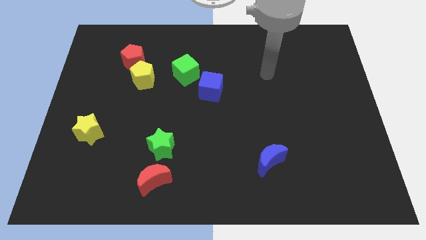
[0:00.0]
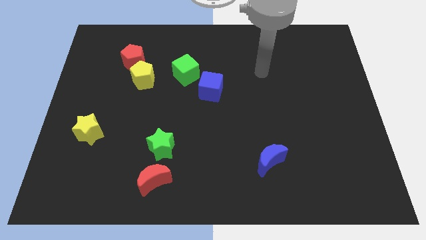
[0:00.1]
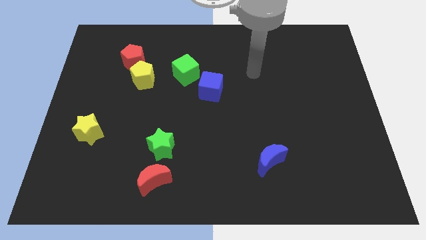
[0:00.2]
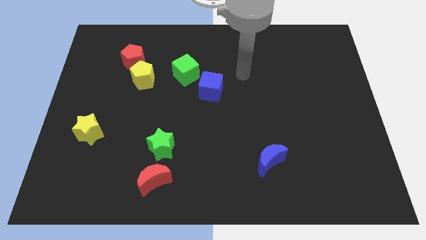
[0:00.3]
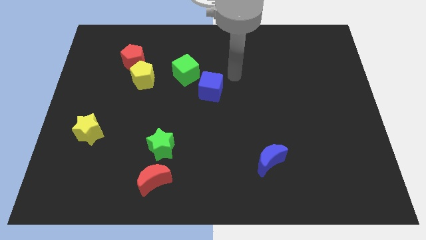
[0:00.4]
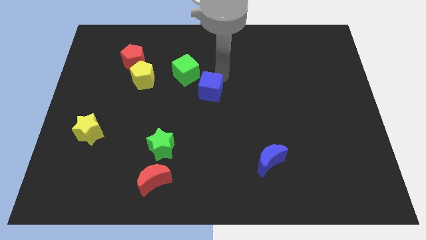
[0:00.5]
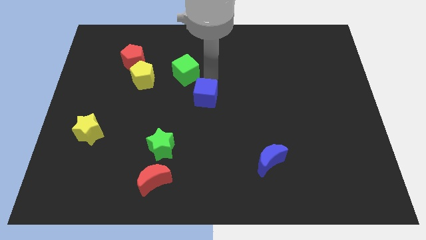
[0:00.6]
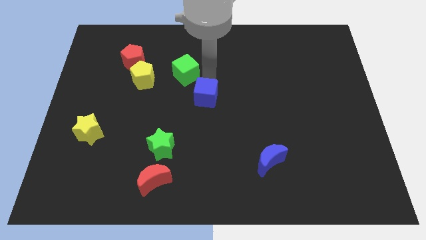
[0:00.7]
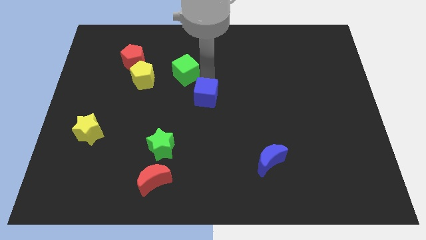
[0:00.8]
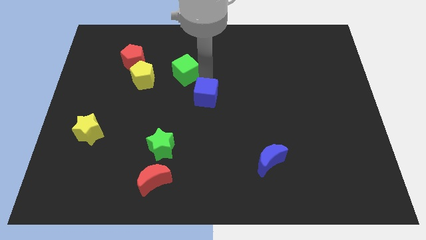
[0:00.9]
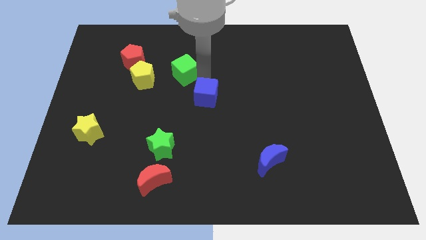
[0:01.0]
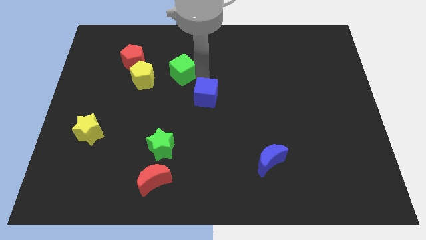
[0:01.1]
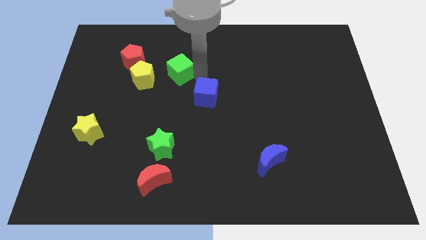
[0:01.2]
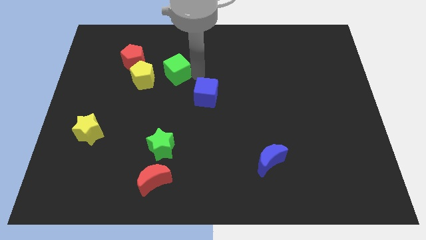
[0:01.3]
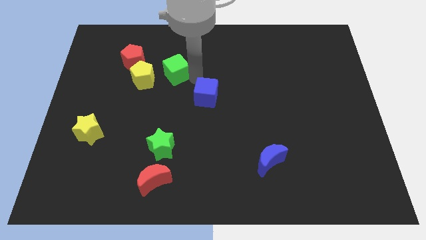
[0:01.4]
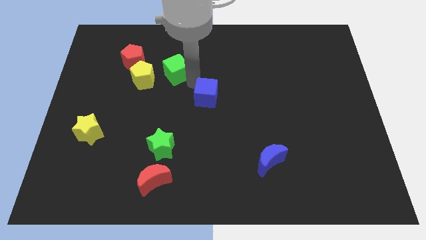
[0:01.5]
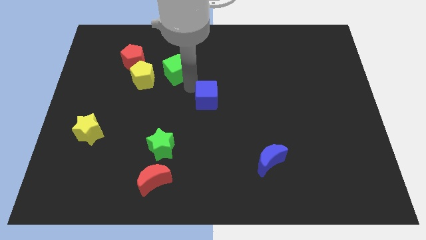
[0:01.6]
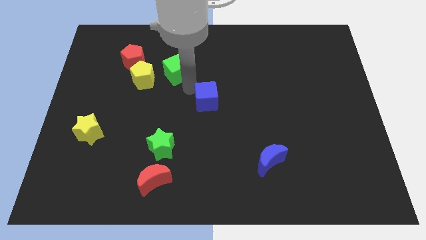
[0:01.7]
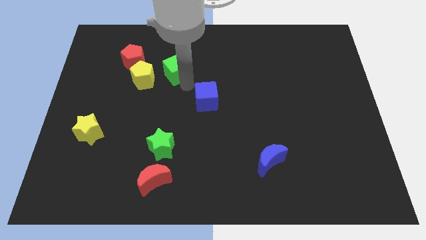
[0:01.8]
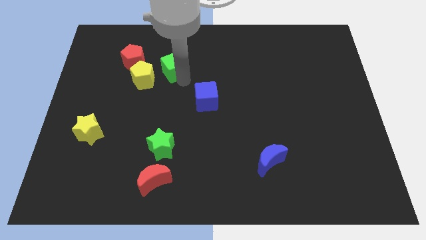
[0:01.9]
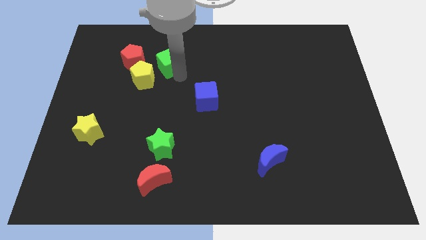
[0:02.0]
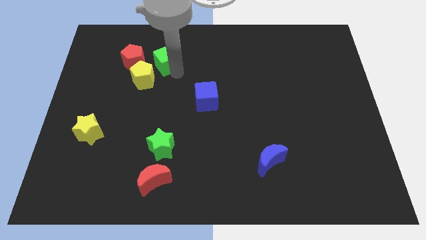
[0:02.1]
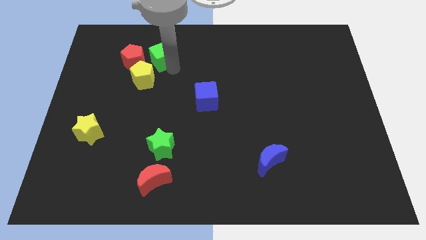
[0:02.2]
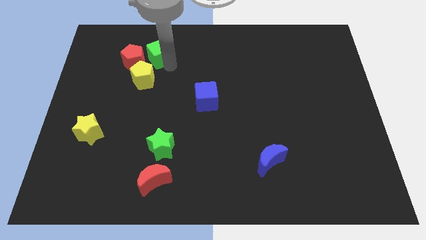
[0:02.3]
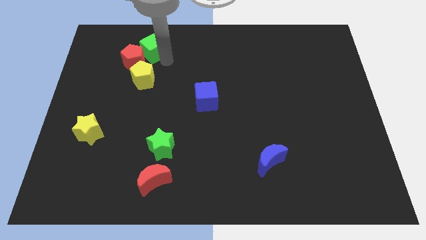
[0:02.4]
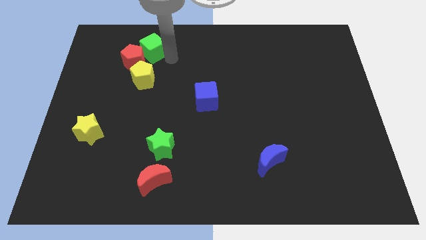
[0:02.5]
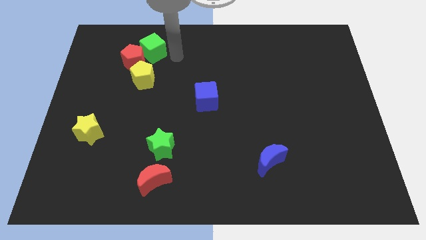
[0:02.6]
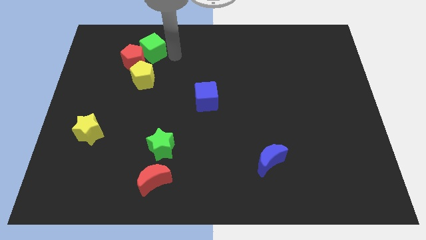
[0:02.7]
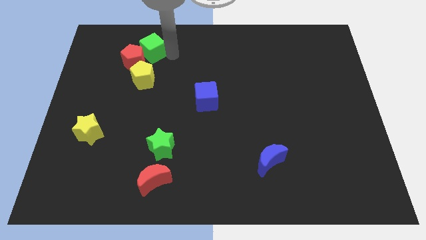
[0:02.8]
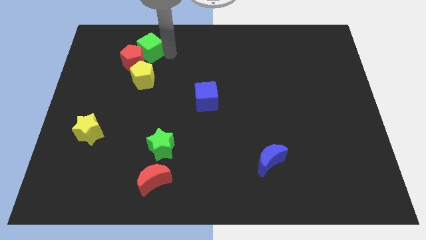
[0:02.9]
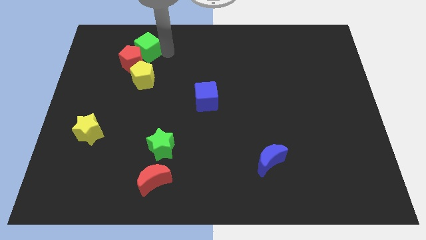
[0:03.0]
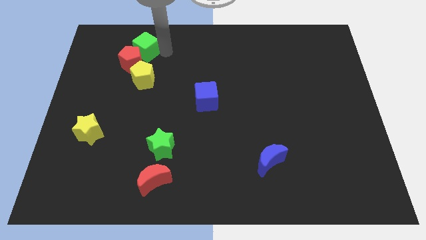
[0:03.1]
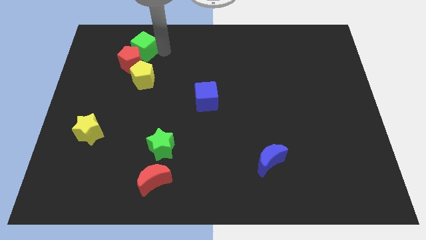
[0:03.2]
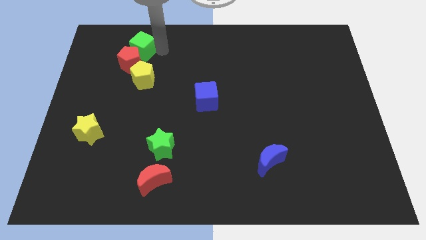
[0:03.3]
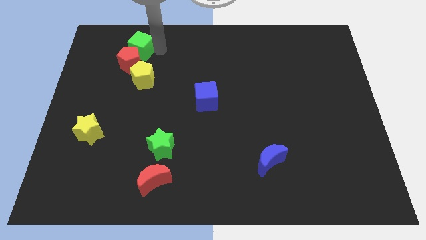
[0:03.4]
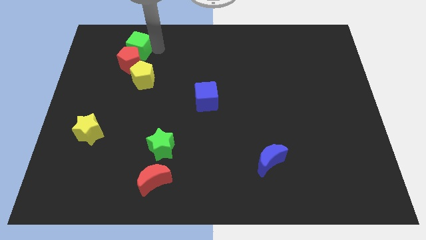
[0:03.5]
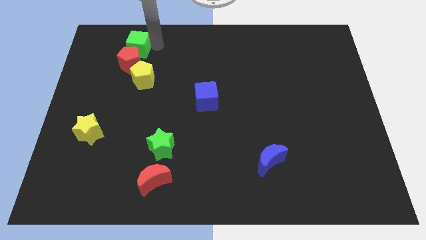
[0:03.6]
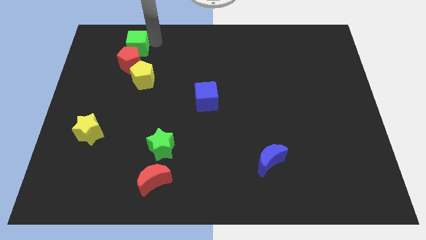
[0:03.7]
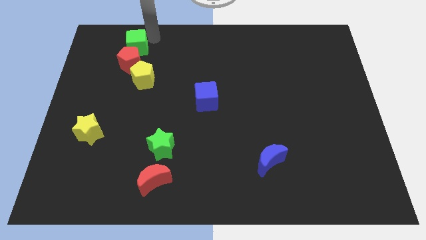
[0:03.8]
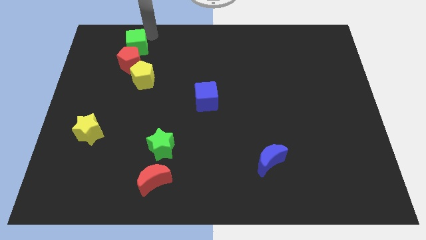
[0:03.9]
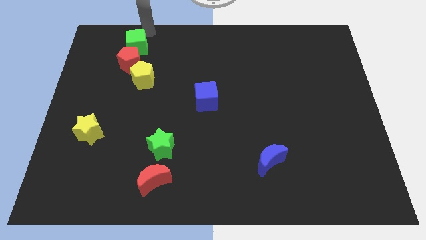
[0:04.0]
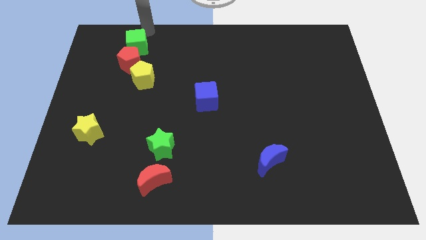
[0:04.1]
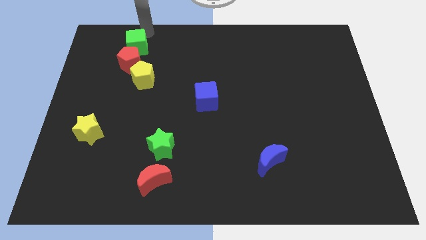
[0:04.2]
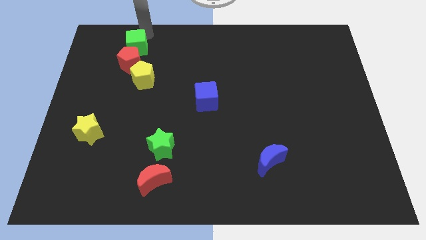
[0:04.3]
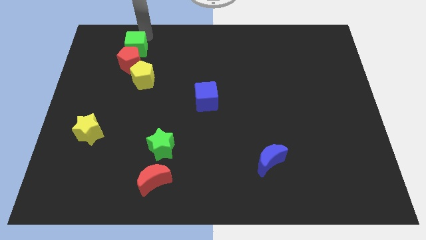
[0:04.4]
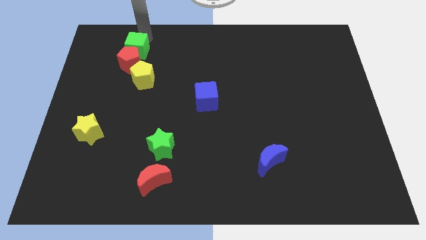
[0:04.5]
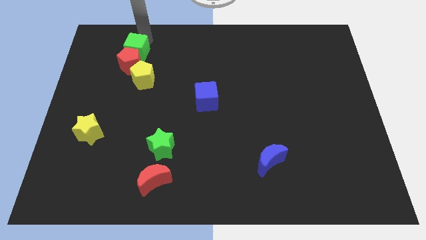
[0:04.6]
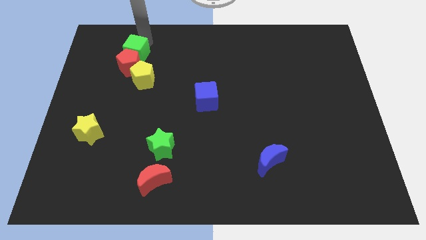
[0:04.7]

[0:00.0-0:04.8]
move the green cube diagonally up and to the left of the yellow pentagon

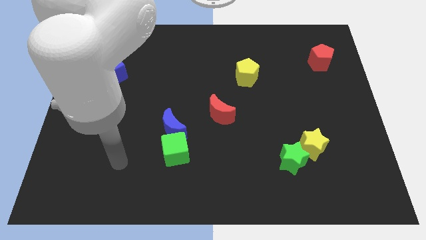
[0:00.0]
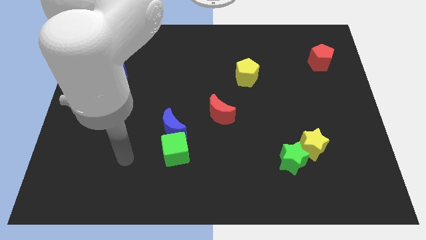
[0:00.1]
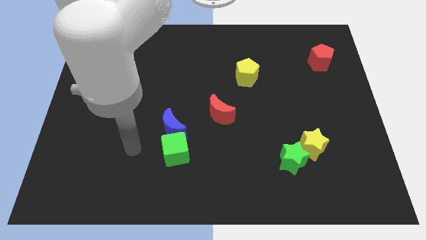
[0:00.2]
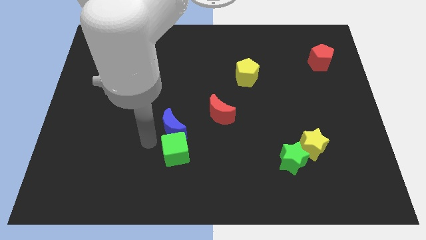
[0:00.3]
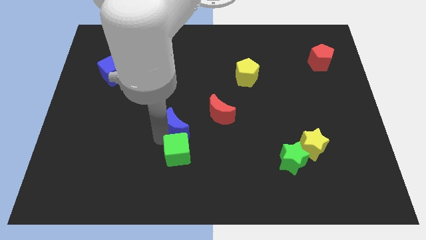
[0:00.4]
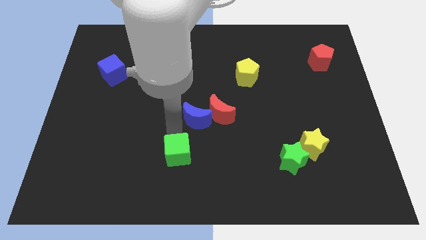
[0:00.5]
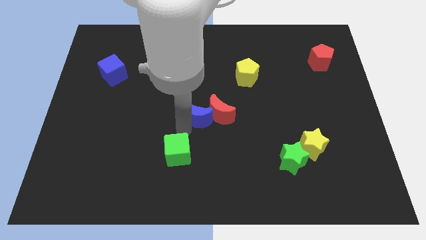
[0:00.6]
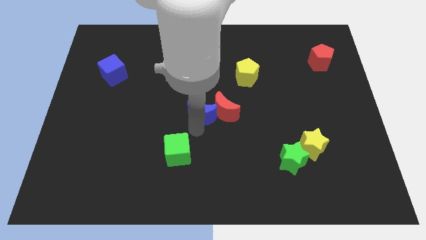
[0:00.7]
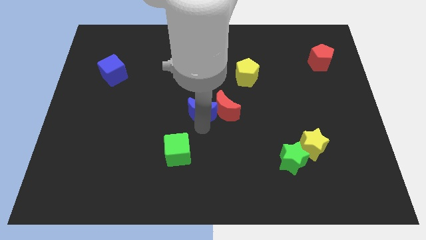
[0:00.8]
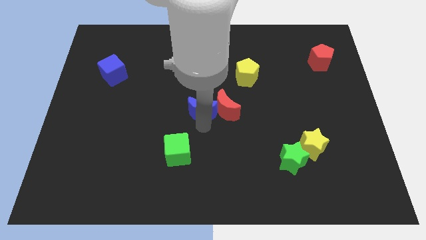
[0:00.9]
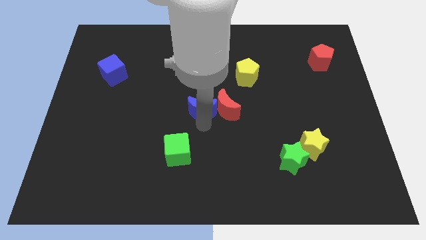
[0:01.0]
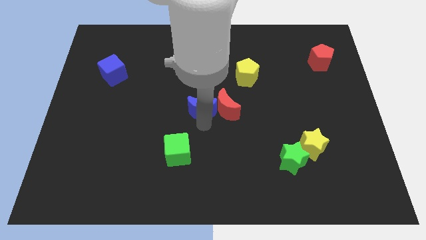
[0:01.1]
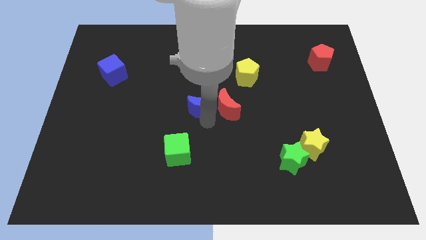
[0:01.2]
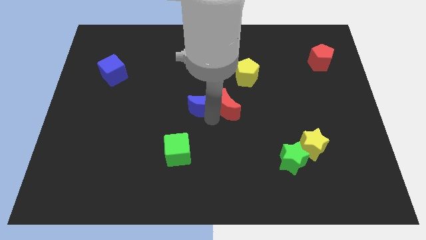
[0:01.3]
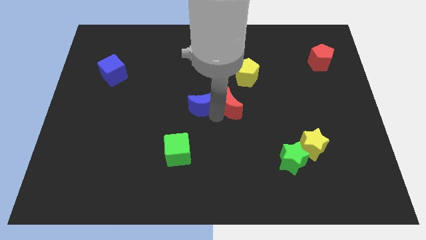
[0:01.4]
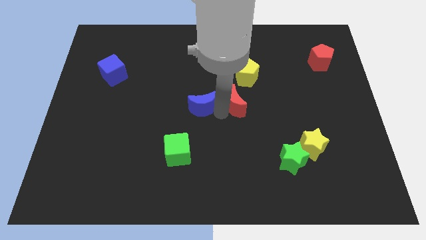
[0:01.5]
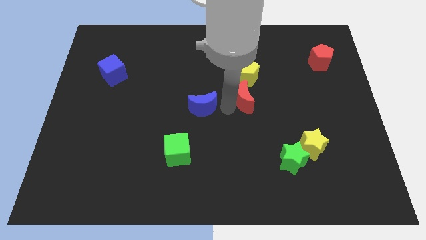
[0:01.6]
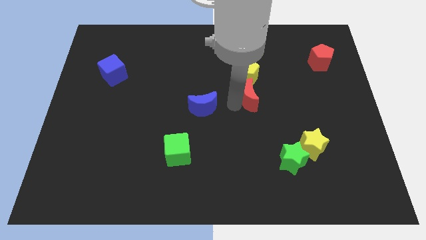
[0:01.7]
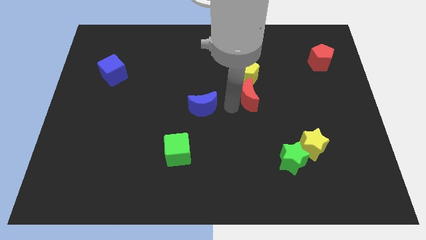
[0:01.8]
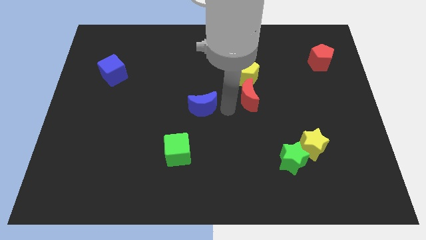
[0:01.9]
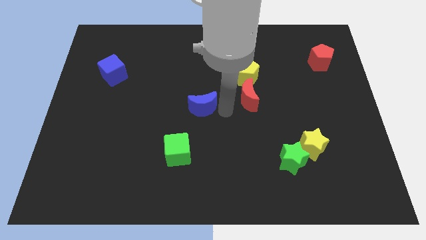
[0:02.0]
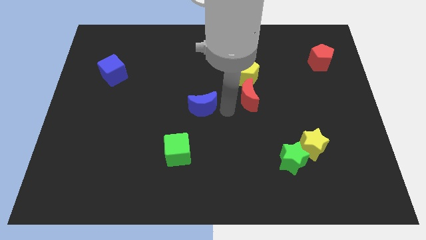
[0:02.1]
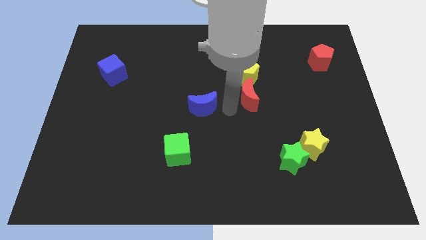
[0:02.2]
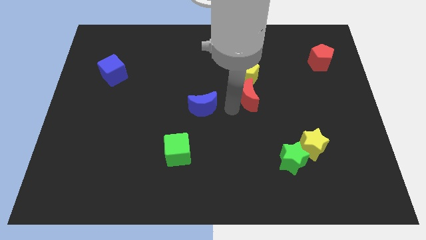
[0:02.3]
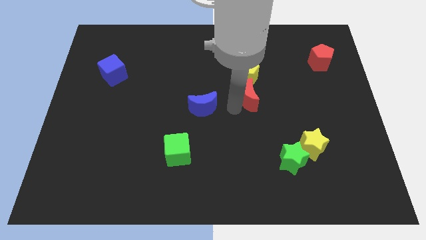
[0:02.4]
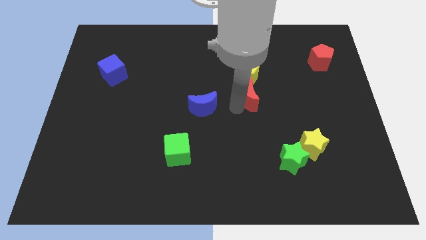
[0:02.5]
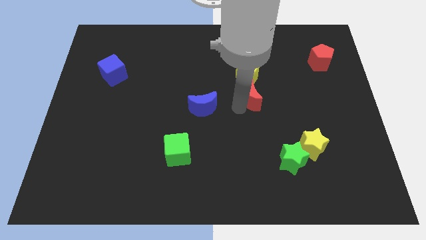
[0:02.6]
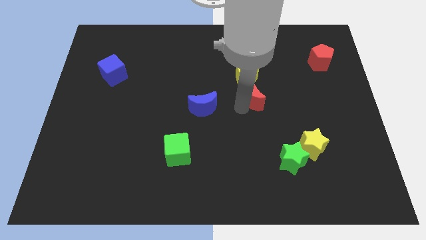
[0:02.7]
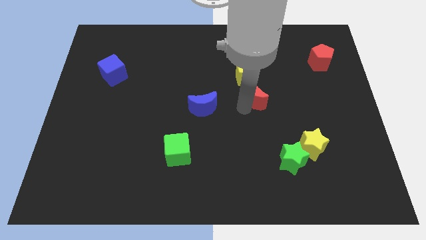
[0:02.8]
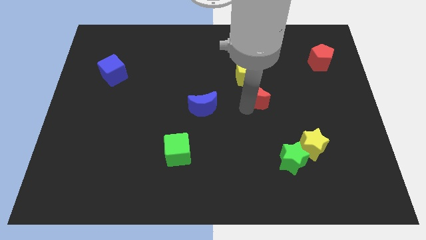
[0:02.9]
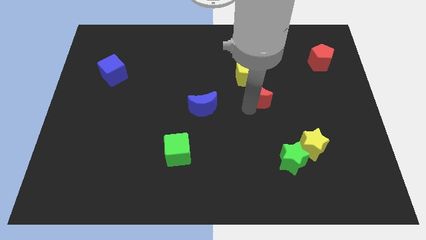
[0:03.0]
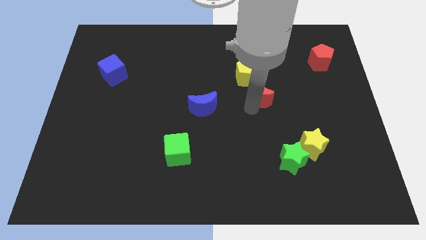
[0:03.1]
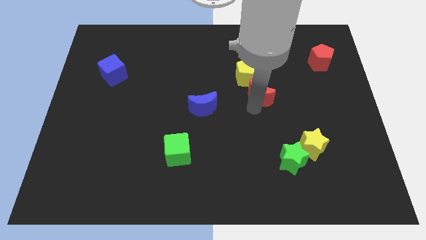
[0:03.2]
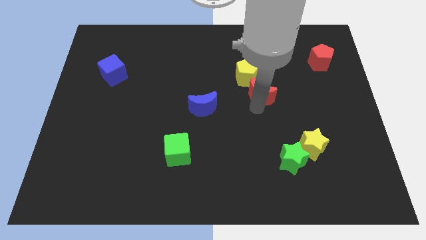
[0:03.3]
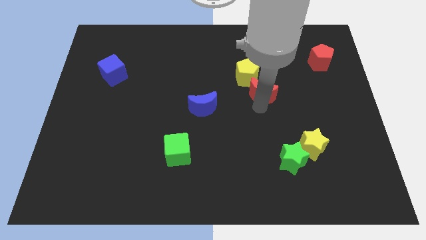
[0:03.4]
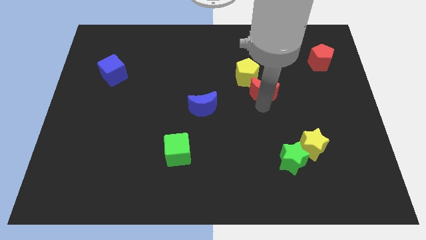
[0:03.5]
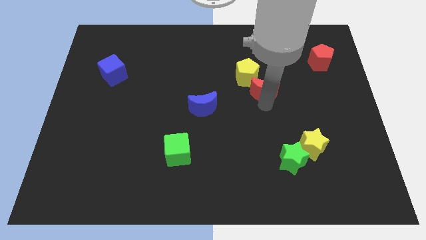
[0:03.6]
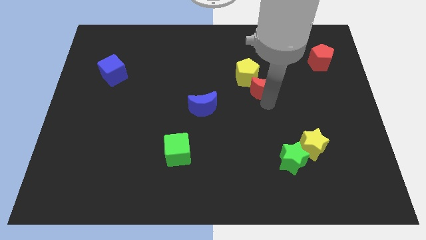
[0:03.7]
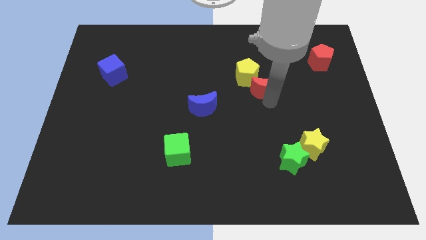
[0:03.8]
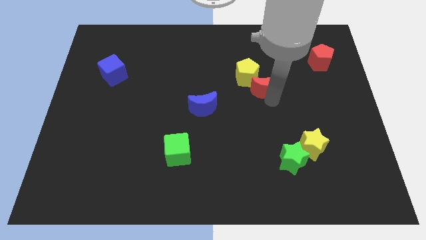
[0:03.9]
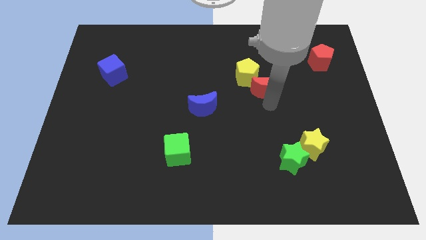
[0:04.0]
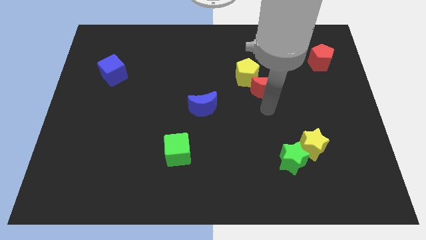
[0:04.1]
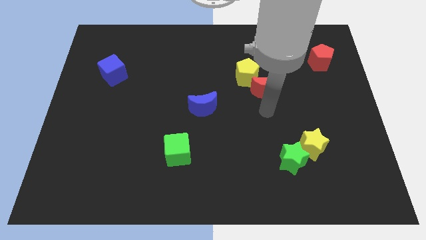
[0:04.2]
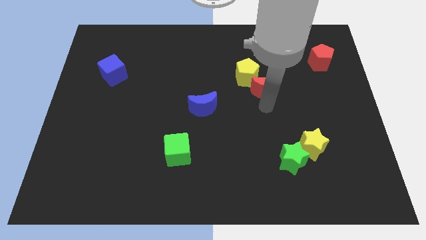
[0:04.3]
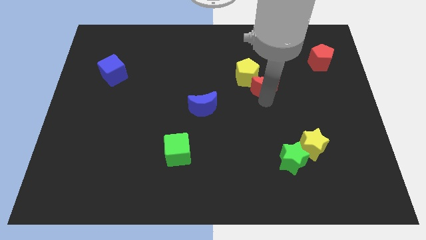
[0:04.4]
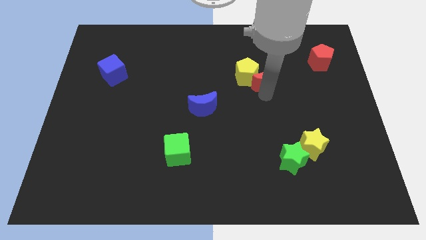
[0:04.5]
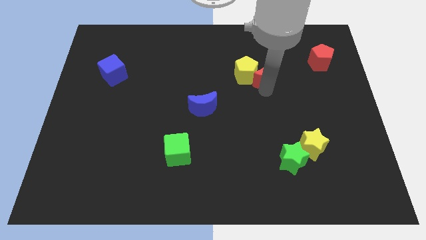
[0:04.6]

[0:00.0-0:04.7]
put the red moon diagonally up and to the right of the yellow pentagon
